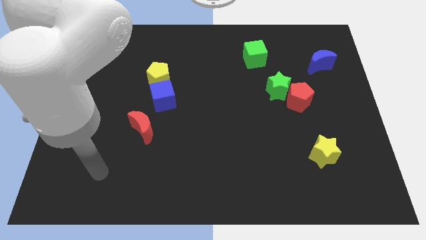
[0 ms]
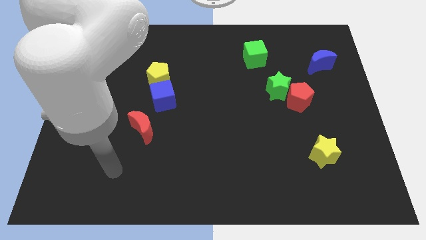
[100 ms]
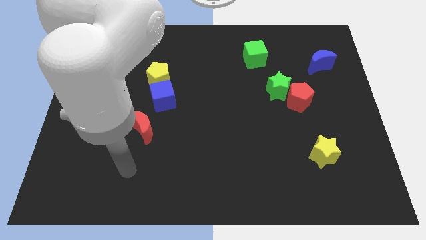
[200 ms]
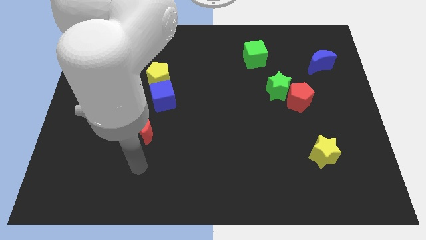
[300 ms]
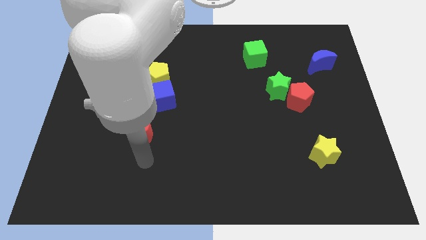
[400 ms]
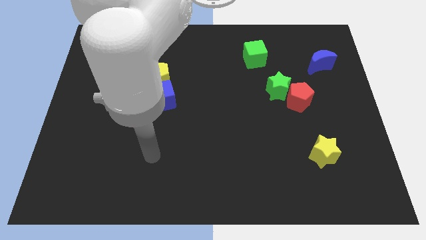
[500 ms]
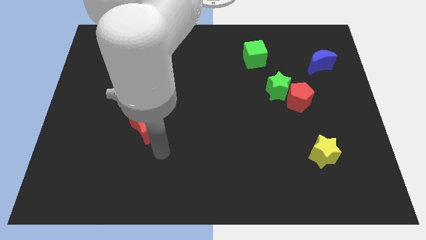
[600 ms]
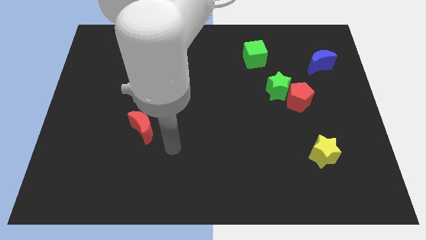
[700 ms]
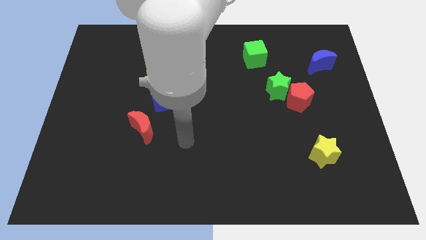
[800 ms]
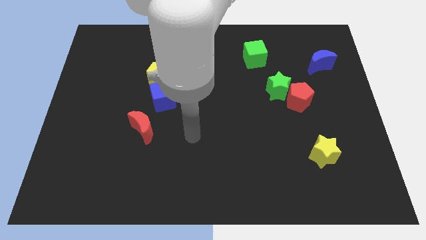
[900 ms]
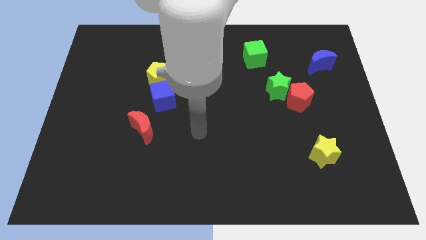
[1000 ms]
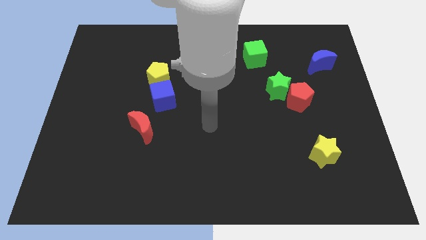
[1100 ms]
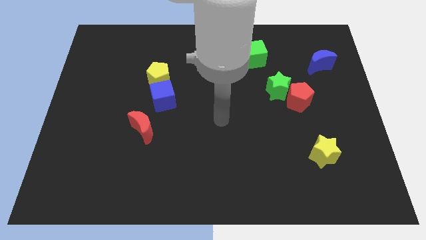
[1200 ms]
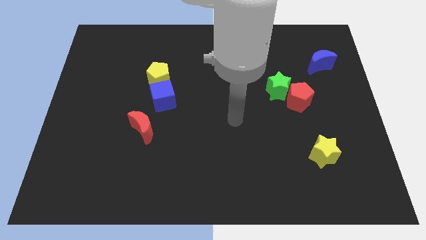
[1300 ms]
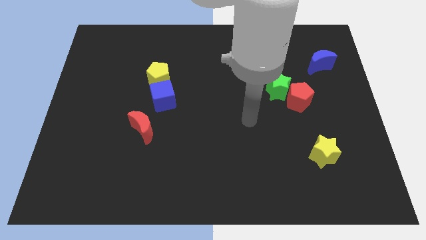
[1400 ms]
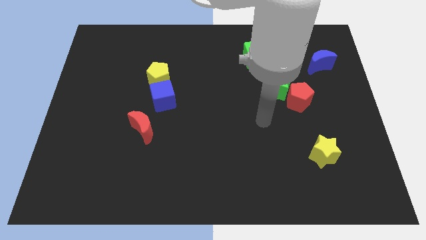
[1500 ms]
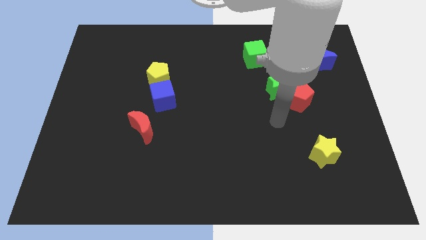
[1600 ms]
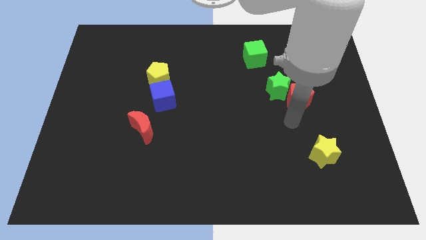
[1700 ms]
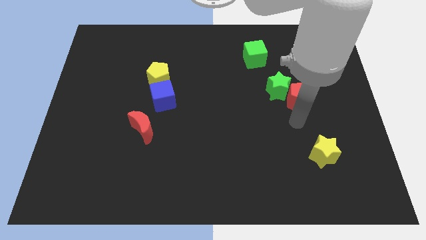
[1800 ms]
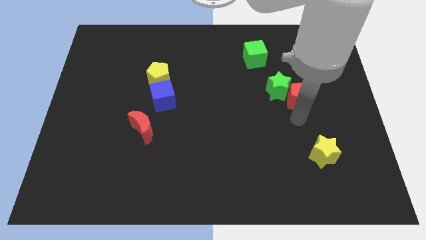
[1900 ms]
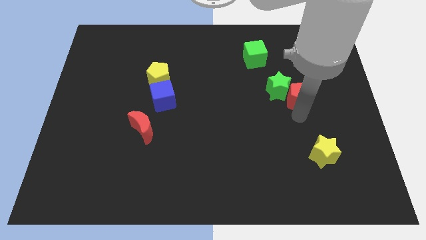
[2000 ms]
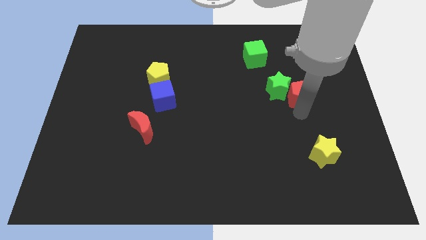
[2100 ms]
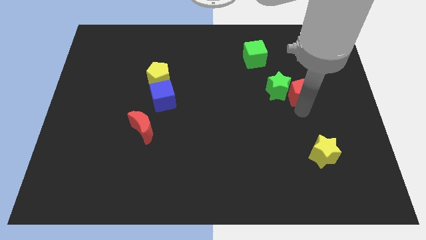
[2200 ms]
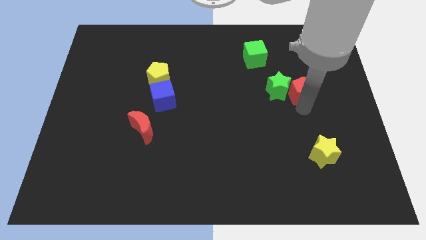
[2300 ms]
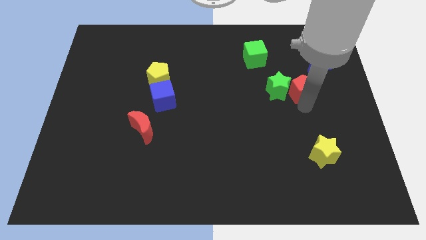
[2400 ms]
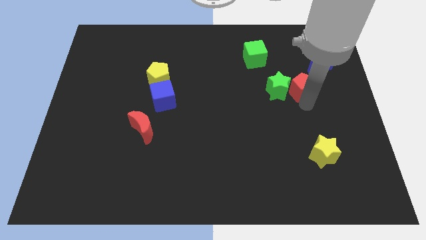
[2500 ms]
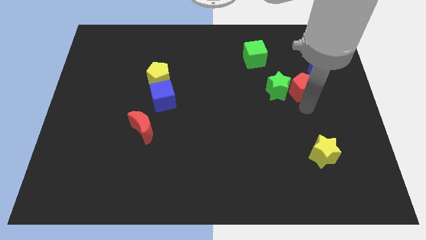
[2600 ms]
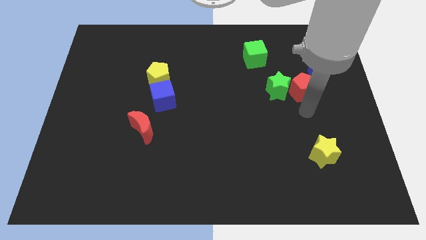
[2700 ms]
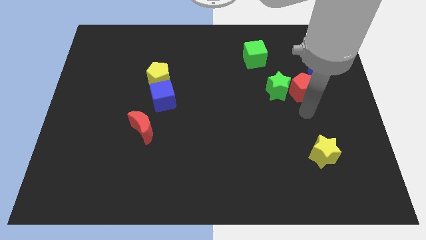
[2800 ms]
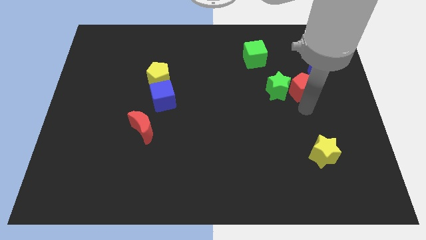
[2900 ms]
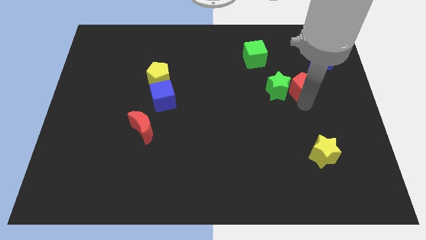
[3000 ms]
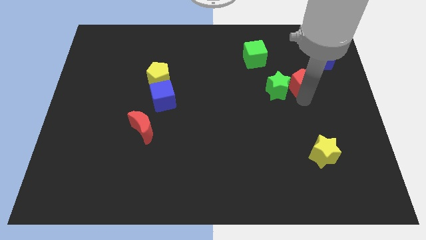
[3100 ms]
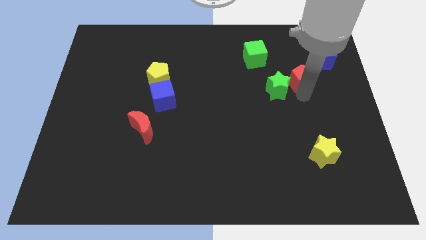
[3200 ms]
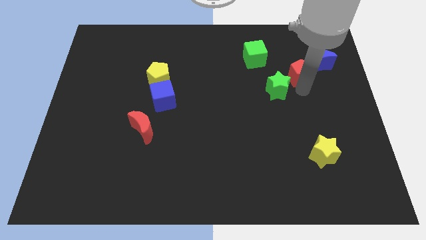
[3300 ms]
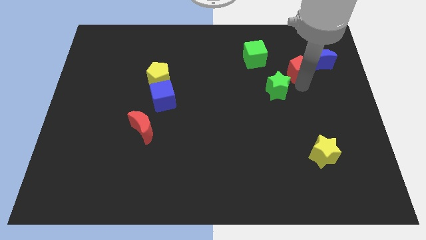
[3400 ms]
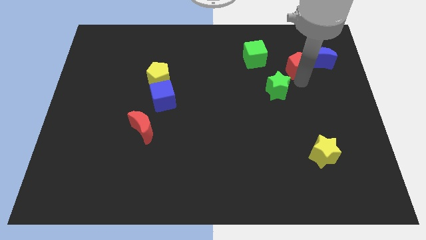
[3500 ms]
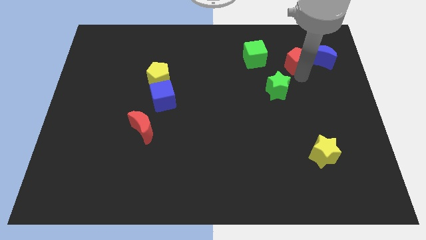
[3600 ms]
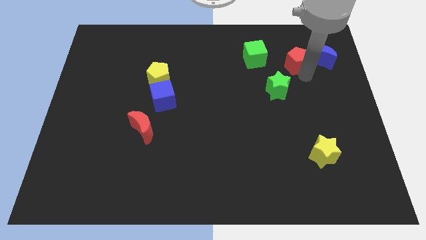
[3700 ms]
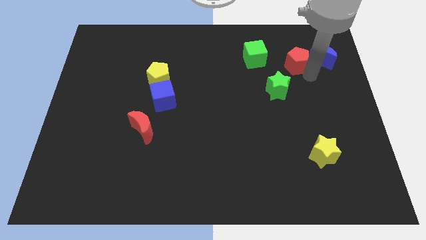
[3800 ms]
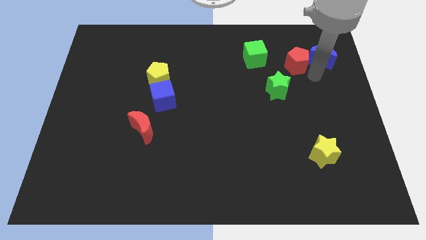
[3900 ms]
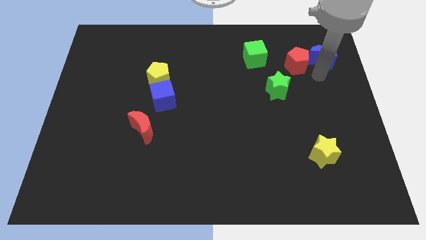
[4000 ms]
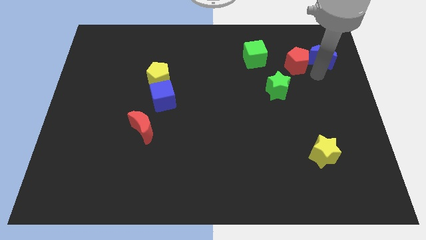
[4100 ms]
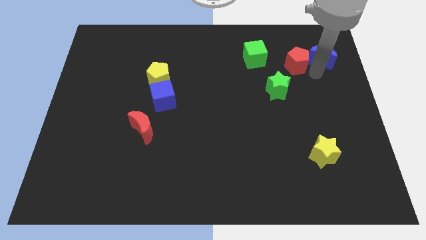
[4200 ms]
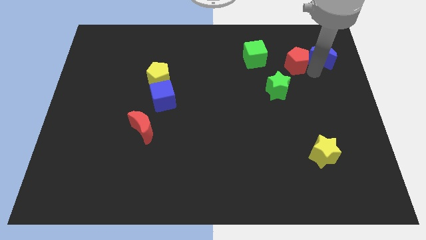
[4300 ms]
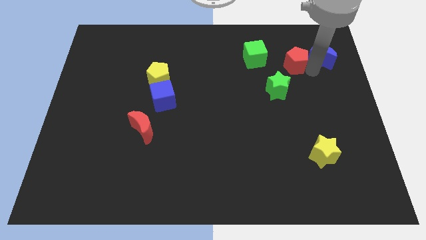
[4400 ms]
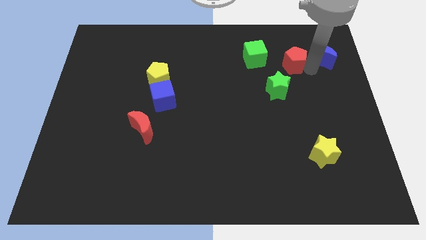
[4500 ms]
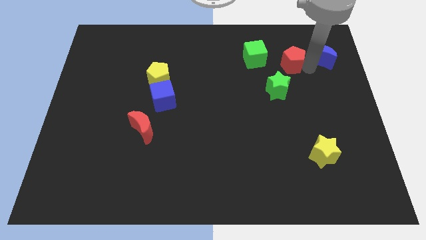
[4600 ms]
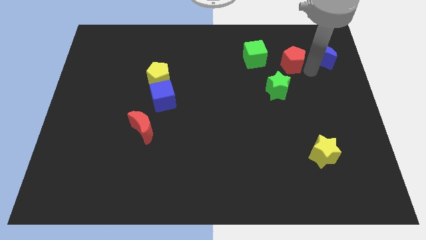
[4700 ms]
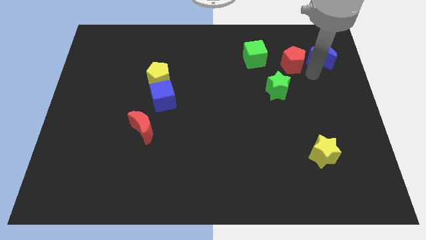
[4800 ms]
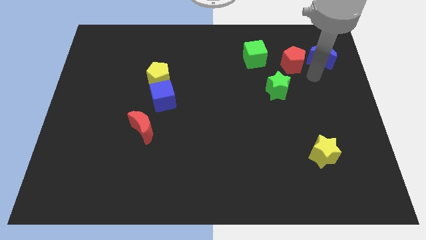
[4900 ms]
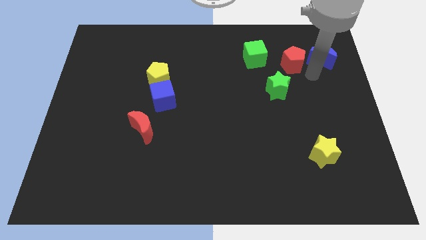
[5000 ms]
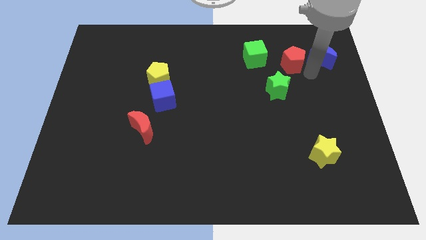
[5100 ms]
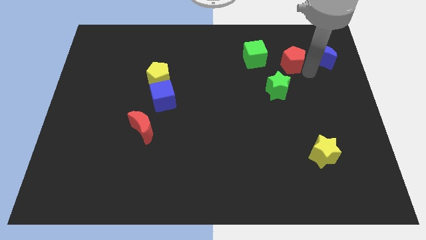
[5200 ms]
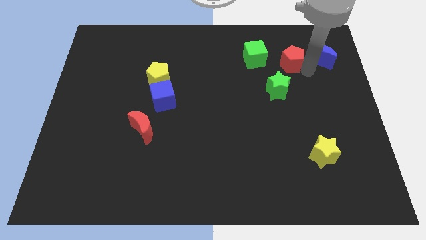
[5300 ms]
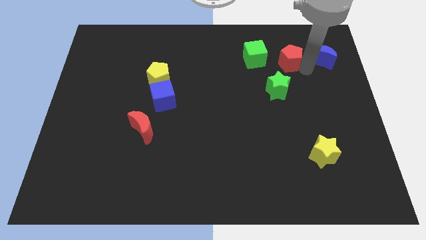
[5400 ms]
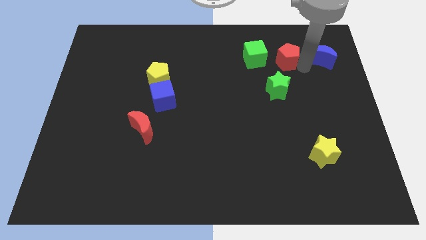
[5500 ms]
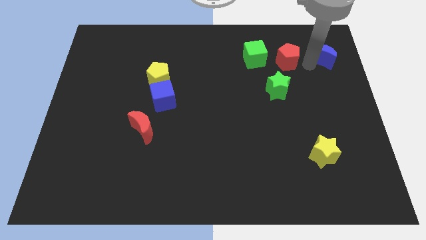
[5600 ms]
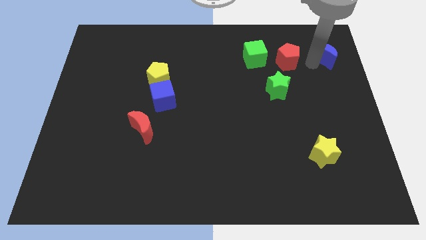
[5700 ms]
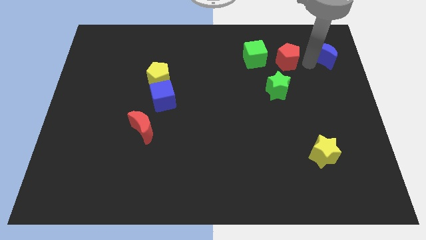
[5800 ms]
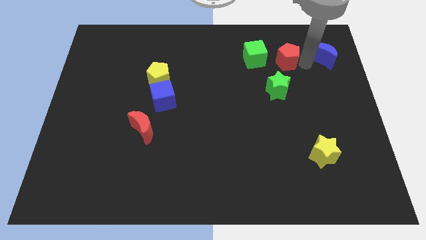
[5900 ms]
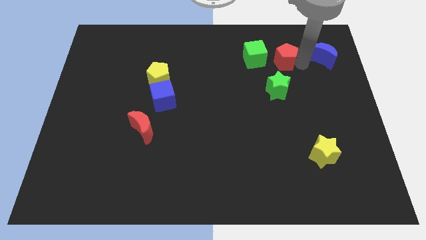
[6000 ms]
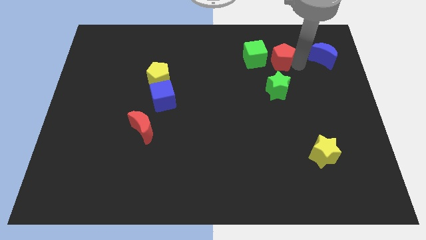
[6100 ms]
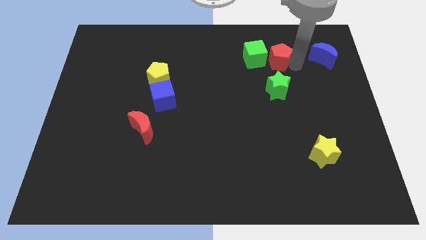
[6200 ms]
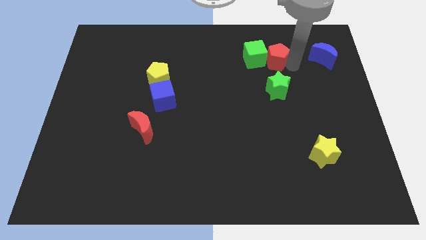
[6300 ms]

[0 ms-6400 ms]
move the red pentagon towards the green cube

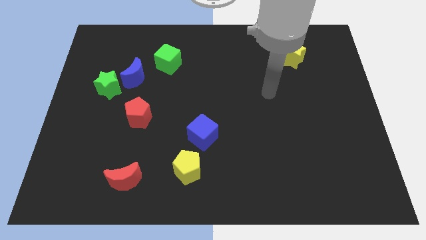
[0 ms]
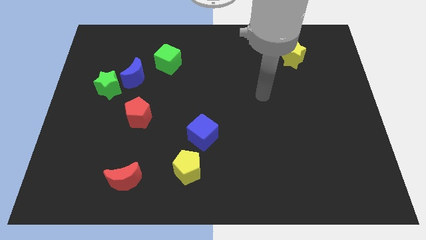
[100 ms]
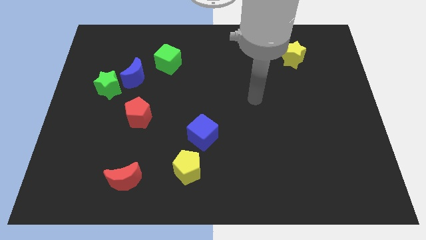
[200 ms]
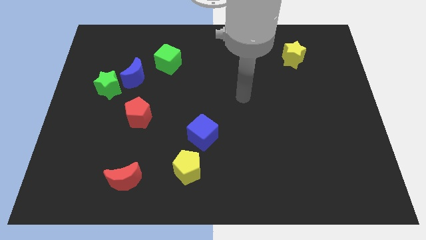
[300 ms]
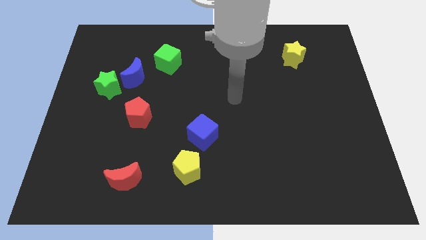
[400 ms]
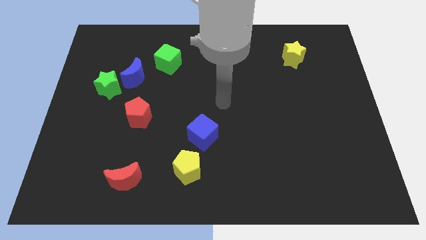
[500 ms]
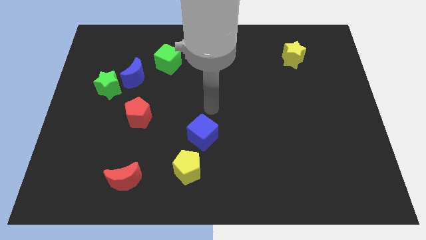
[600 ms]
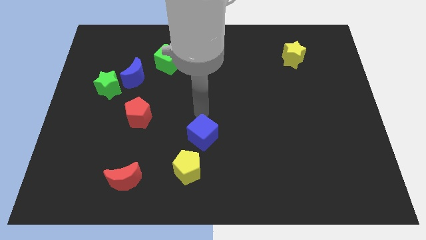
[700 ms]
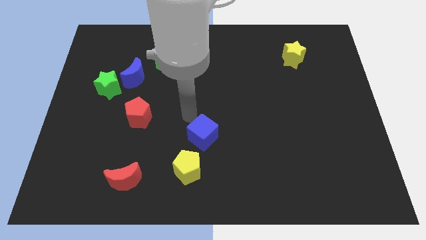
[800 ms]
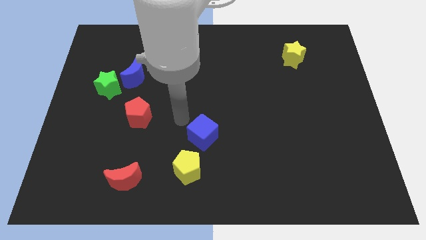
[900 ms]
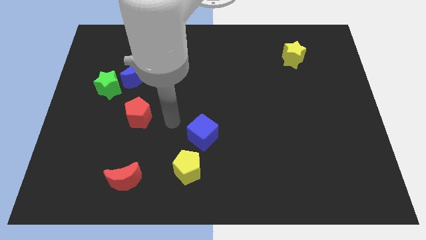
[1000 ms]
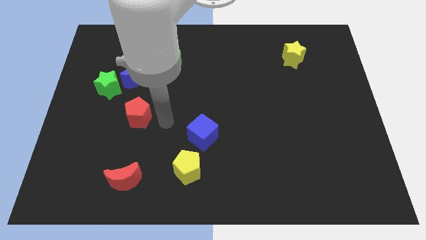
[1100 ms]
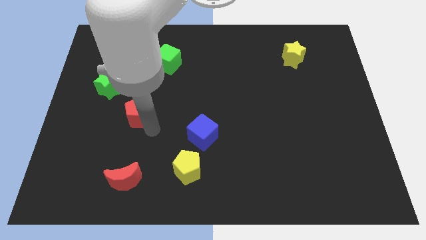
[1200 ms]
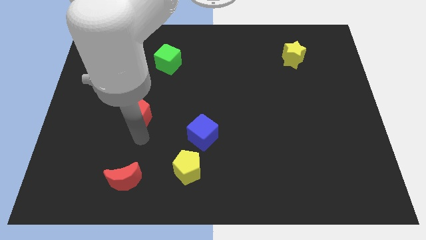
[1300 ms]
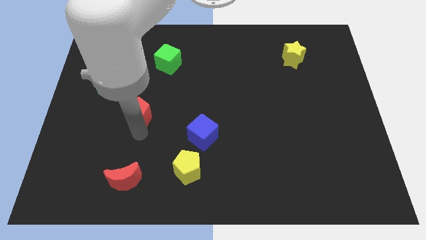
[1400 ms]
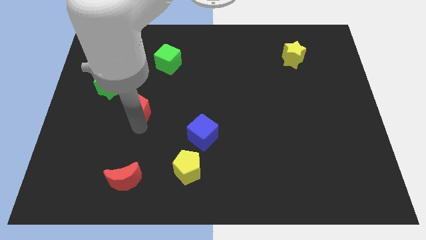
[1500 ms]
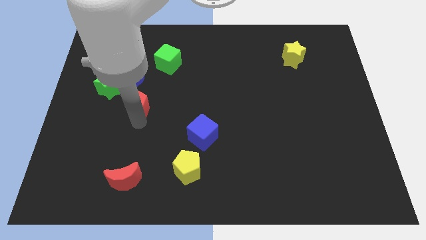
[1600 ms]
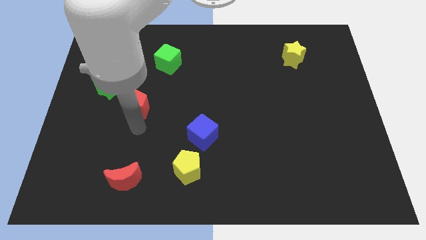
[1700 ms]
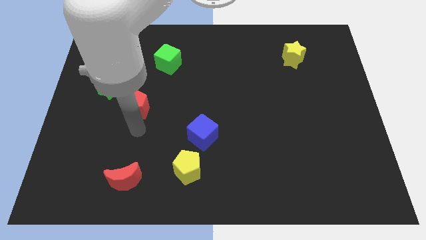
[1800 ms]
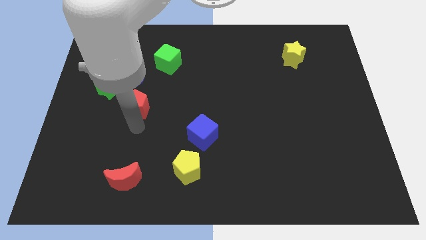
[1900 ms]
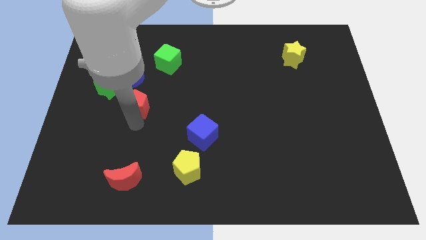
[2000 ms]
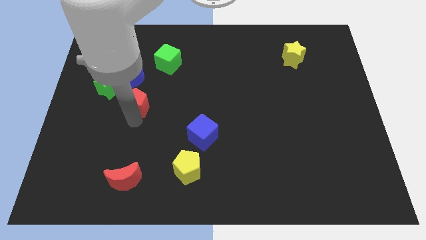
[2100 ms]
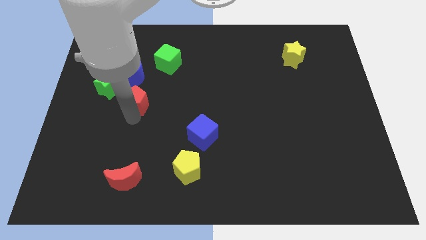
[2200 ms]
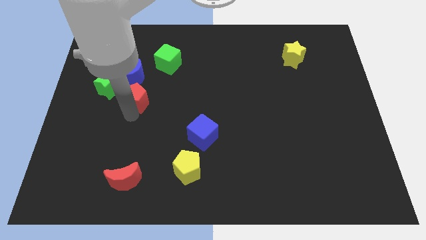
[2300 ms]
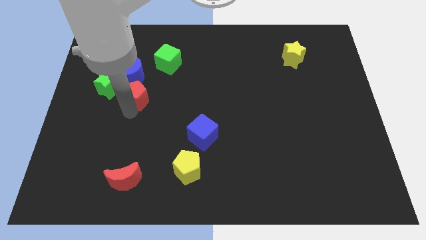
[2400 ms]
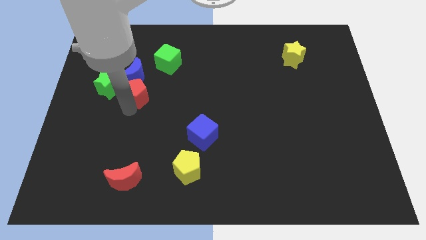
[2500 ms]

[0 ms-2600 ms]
push the red pentagon next to the blue moon
